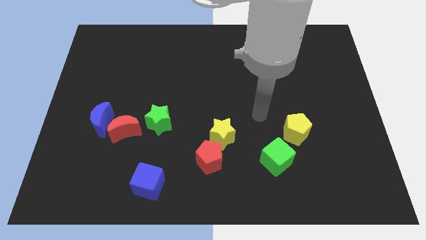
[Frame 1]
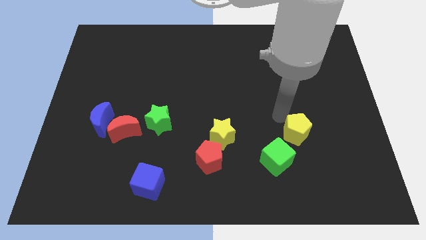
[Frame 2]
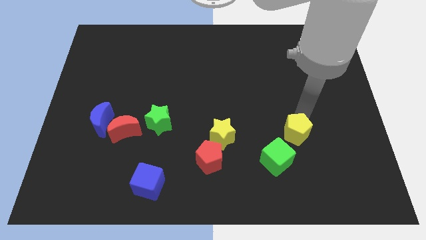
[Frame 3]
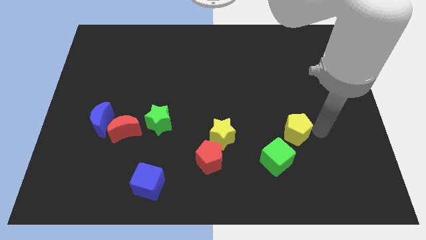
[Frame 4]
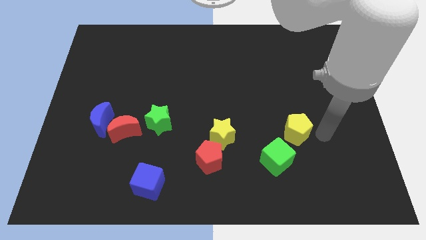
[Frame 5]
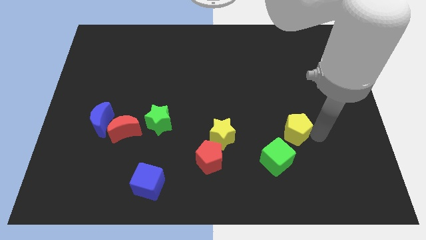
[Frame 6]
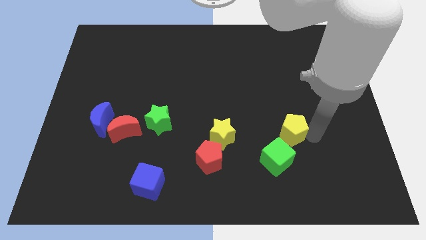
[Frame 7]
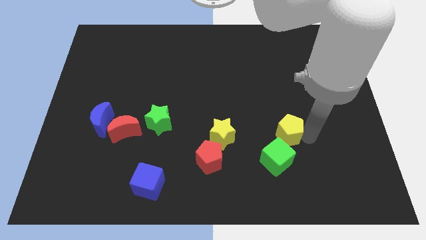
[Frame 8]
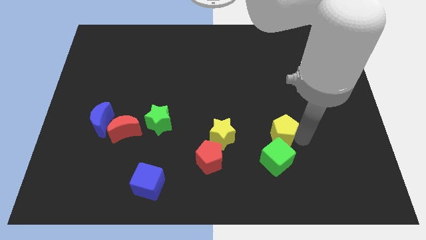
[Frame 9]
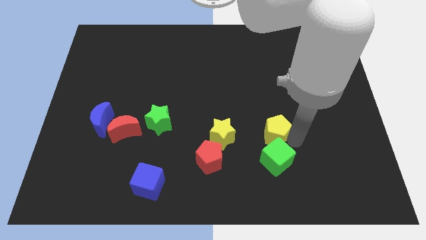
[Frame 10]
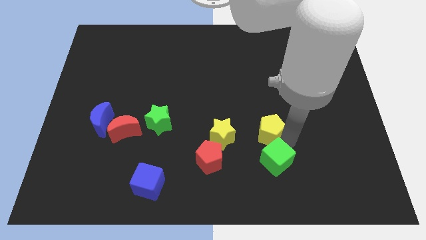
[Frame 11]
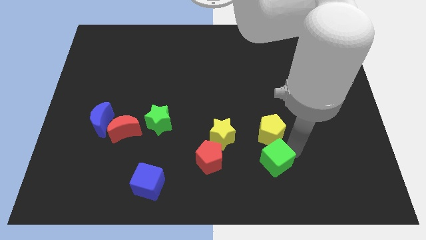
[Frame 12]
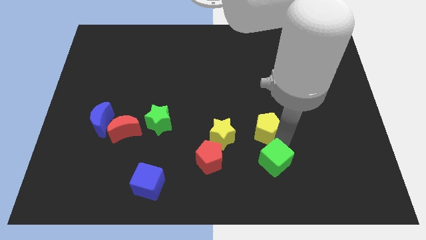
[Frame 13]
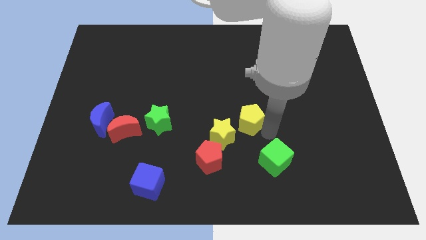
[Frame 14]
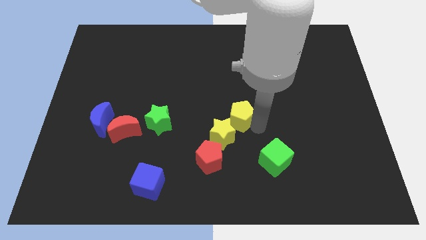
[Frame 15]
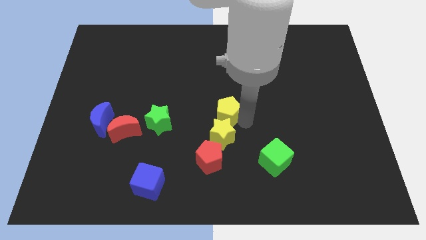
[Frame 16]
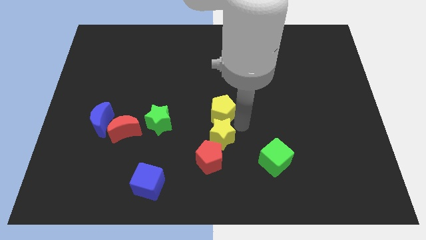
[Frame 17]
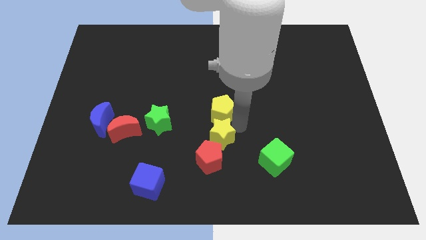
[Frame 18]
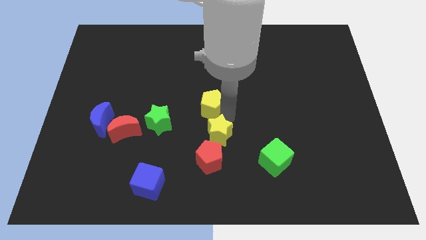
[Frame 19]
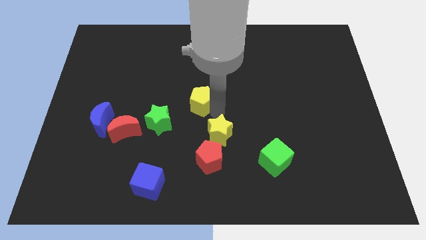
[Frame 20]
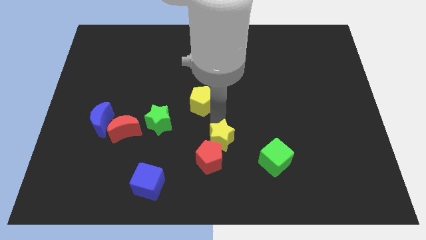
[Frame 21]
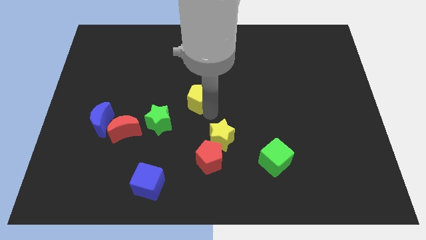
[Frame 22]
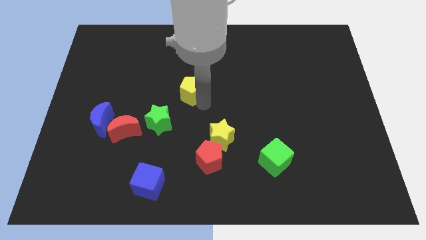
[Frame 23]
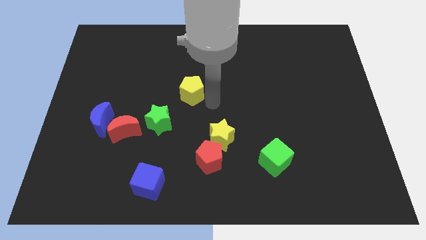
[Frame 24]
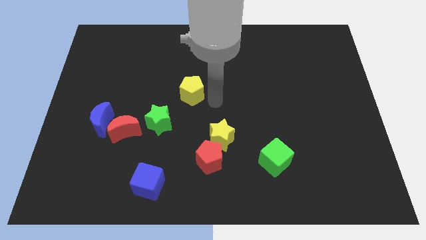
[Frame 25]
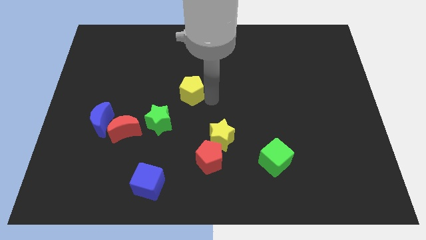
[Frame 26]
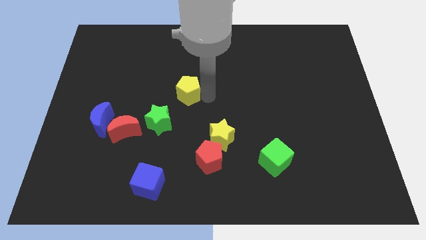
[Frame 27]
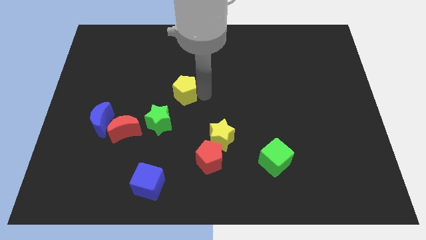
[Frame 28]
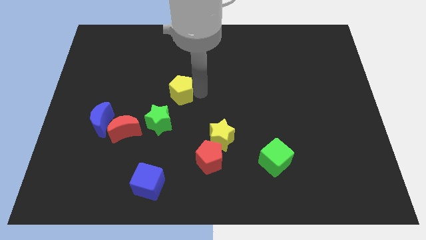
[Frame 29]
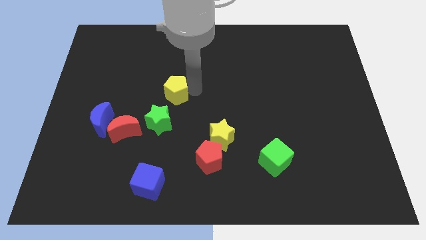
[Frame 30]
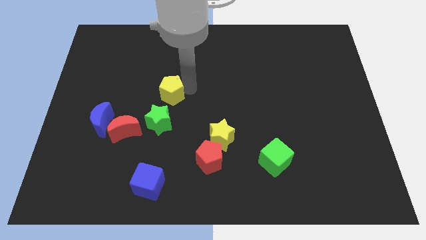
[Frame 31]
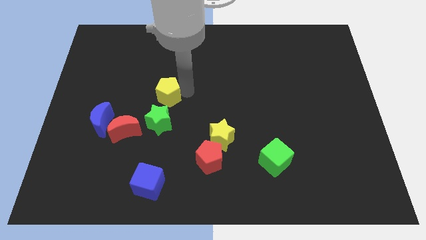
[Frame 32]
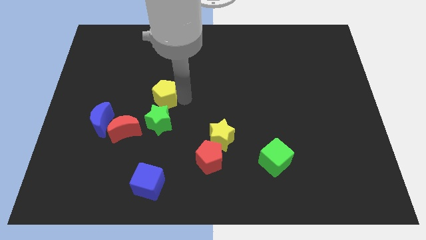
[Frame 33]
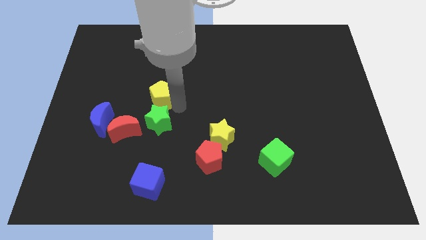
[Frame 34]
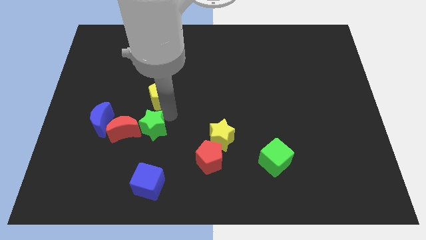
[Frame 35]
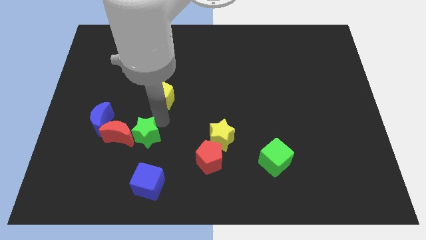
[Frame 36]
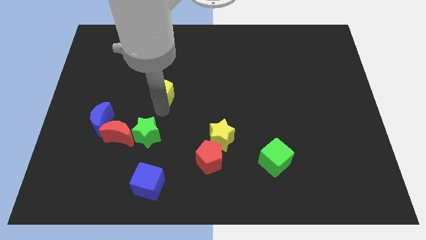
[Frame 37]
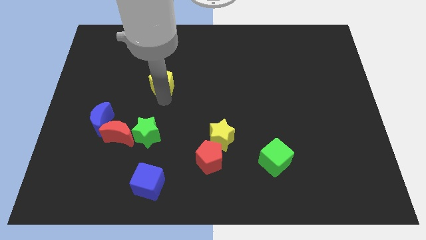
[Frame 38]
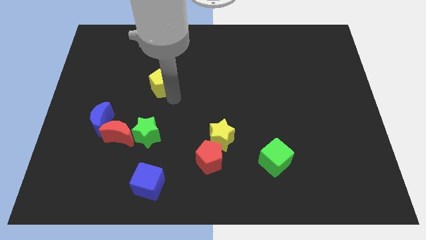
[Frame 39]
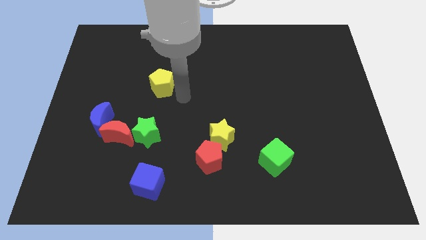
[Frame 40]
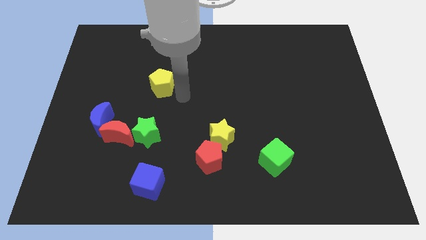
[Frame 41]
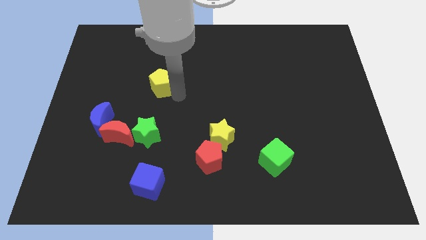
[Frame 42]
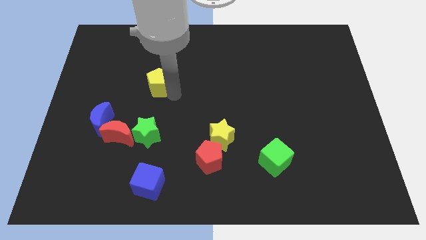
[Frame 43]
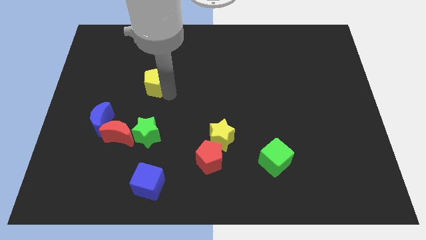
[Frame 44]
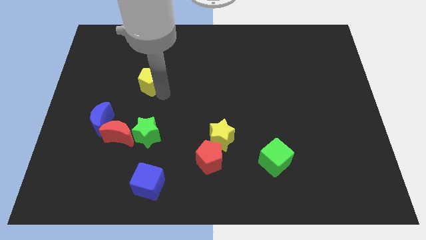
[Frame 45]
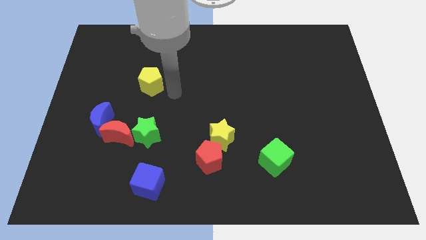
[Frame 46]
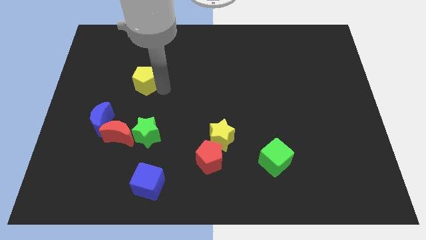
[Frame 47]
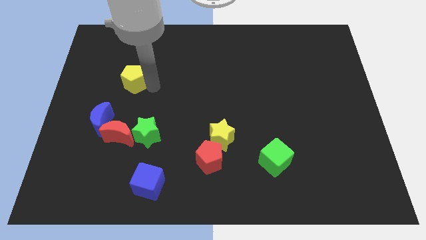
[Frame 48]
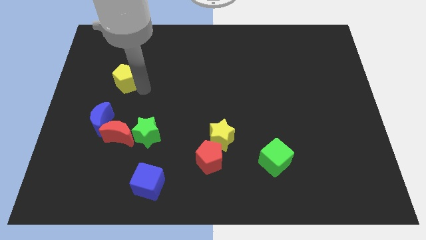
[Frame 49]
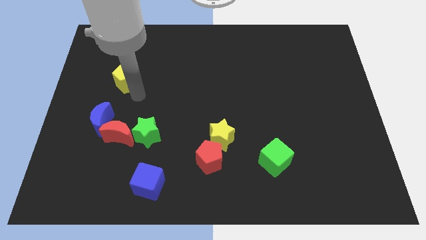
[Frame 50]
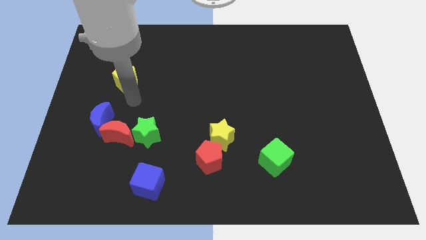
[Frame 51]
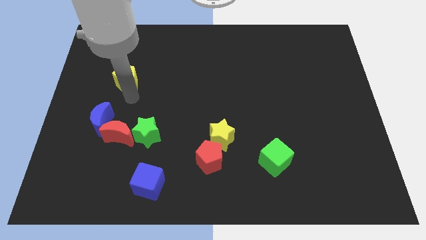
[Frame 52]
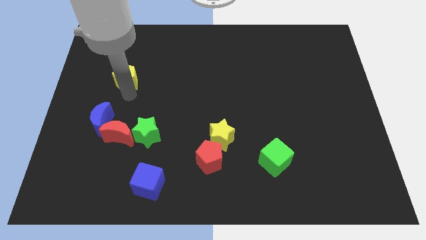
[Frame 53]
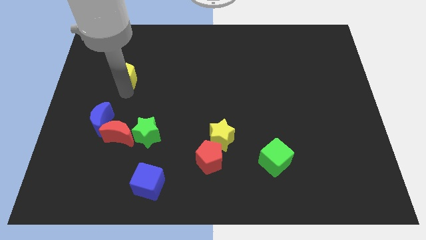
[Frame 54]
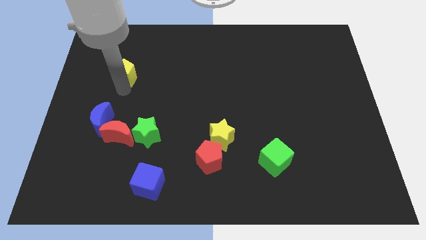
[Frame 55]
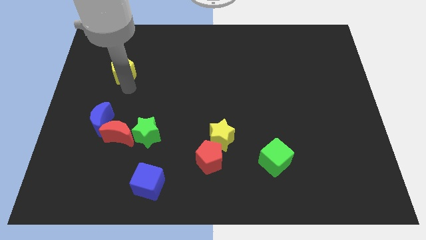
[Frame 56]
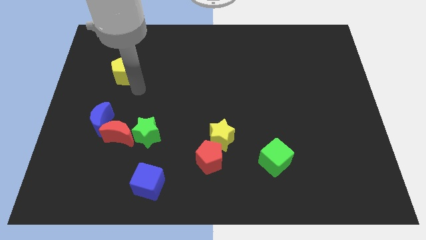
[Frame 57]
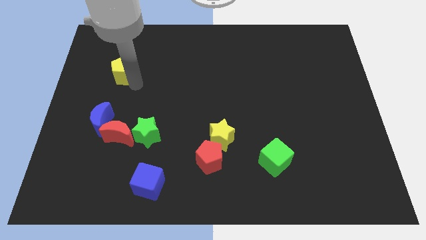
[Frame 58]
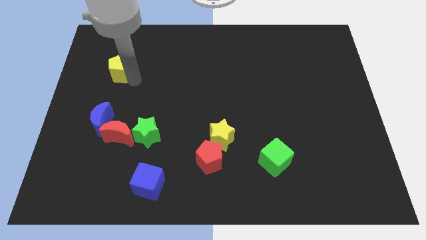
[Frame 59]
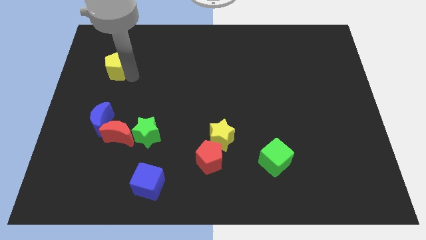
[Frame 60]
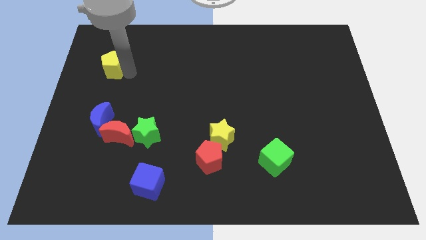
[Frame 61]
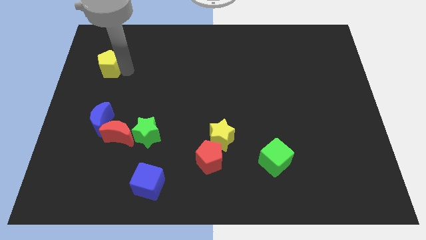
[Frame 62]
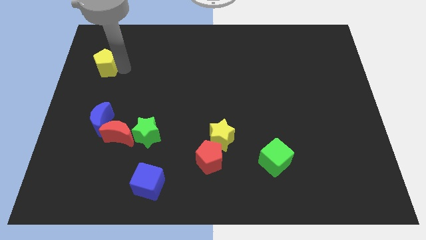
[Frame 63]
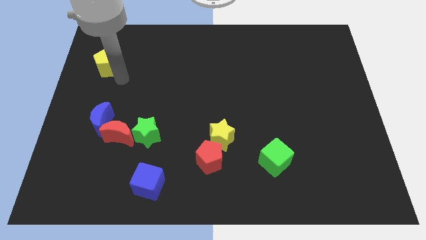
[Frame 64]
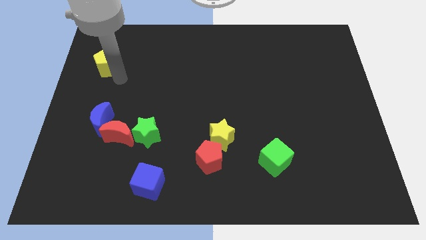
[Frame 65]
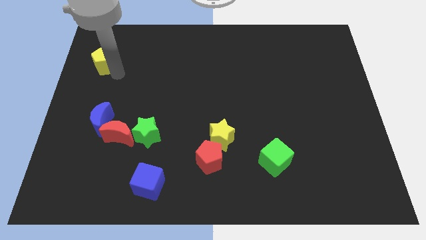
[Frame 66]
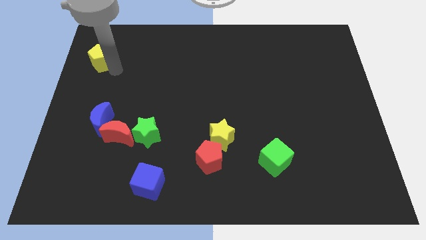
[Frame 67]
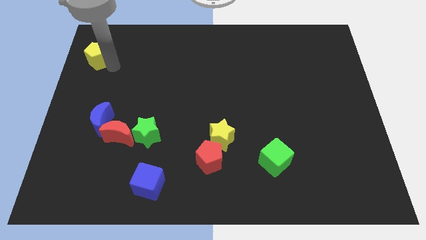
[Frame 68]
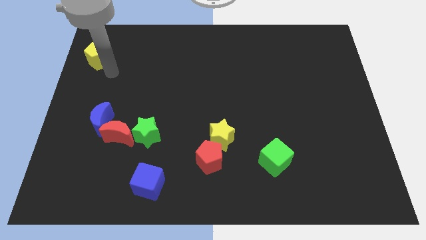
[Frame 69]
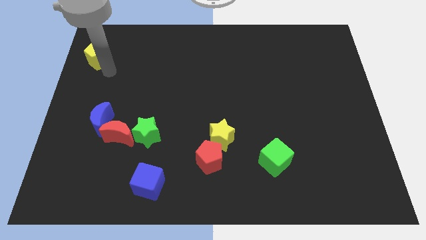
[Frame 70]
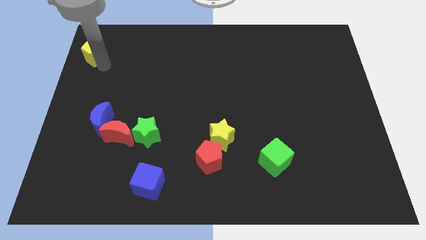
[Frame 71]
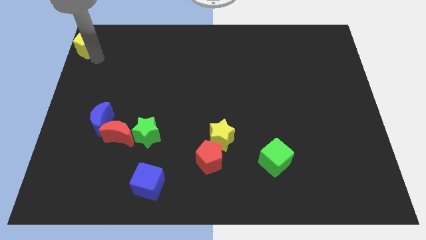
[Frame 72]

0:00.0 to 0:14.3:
slide the yellow pentagon to the top left
